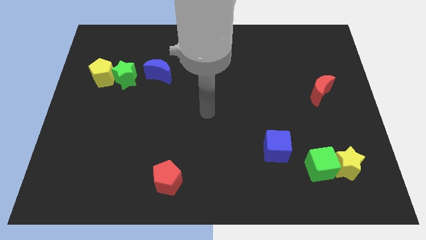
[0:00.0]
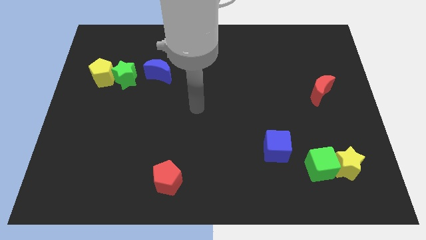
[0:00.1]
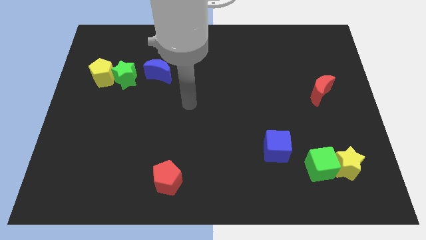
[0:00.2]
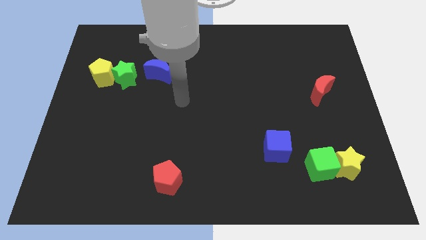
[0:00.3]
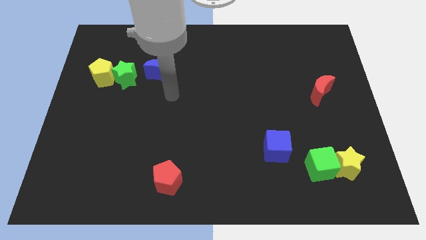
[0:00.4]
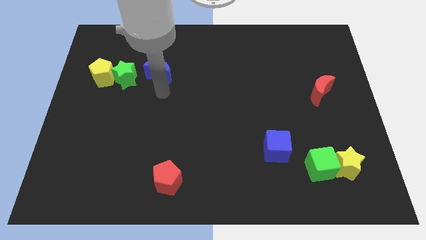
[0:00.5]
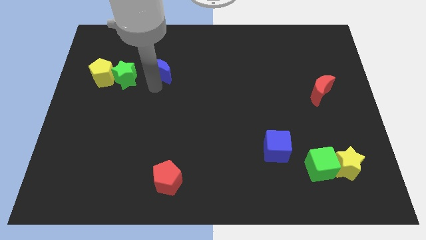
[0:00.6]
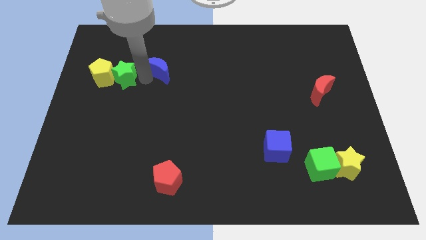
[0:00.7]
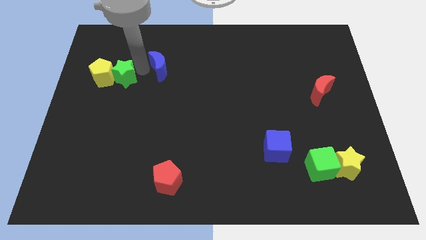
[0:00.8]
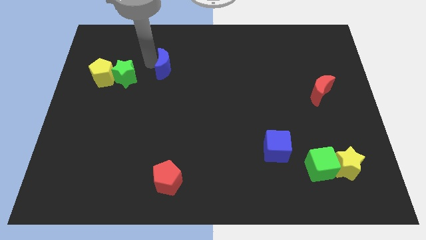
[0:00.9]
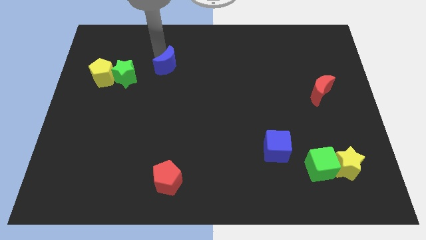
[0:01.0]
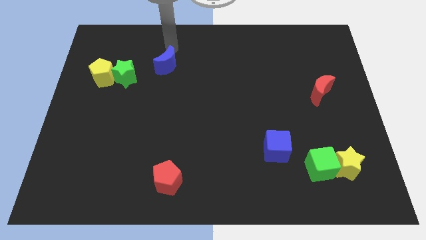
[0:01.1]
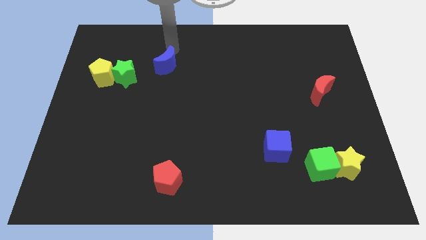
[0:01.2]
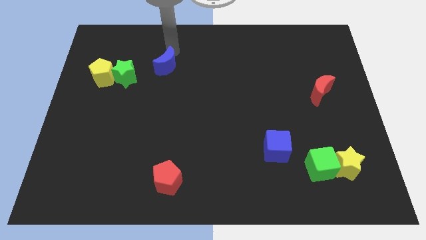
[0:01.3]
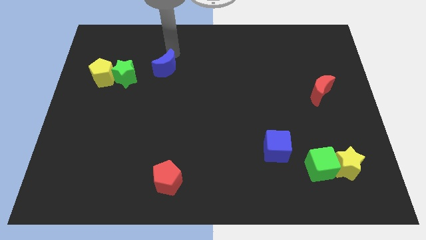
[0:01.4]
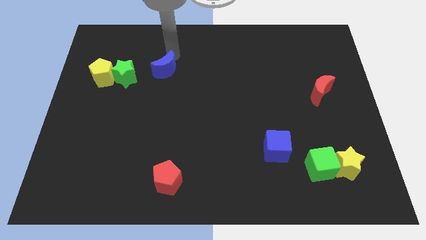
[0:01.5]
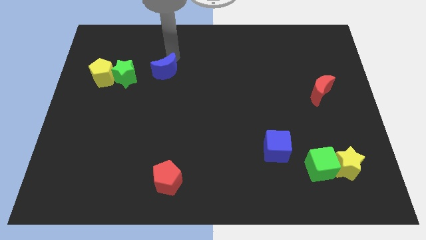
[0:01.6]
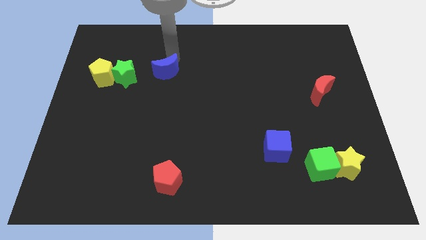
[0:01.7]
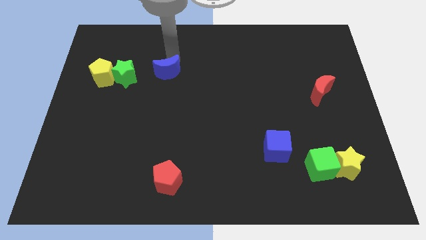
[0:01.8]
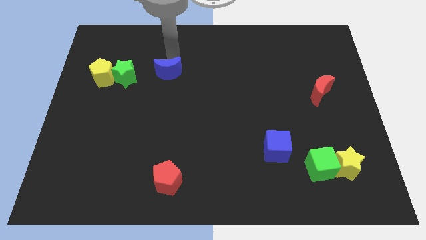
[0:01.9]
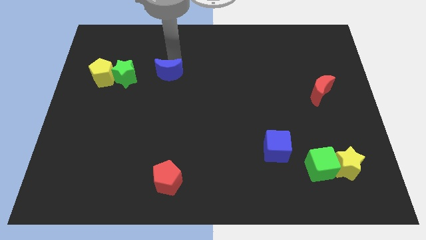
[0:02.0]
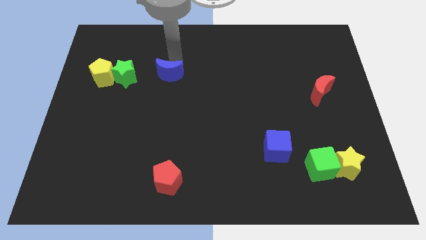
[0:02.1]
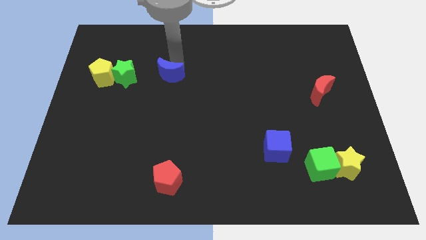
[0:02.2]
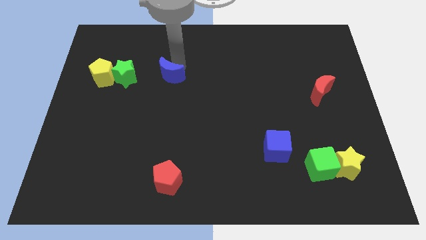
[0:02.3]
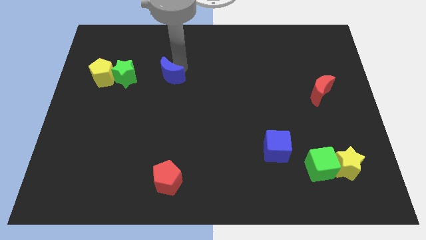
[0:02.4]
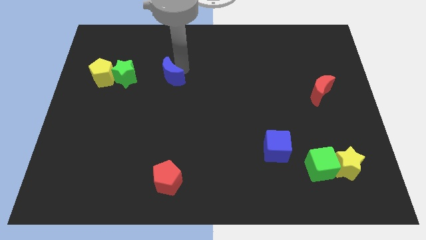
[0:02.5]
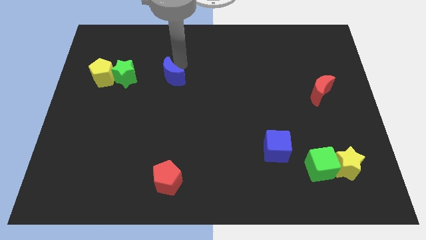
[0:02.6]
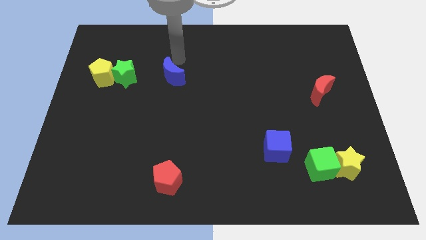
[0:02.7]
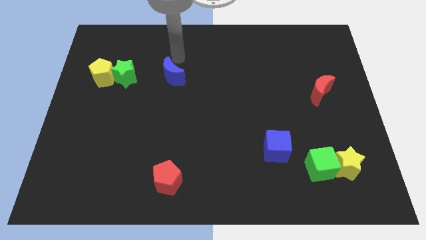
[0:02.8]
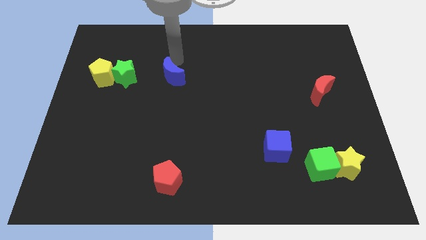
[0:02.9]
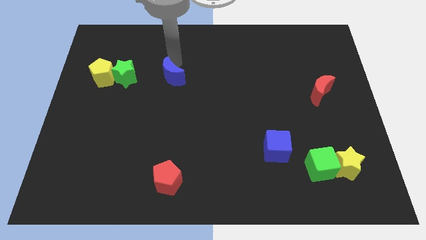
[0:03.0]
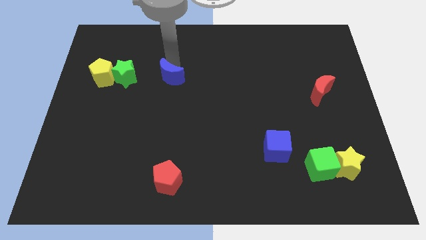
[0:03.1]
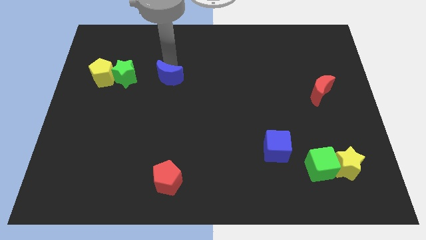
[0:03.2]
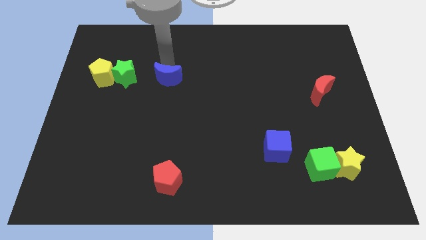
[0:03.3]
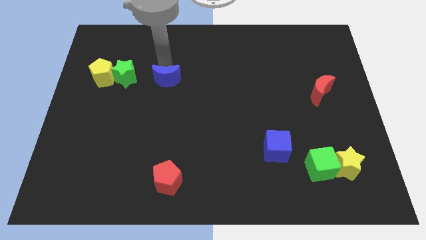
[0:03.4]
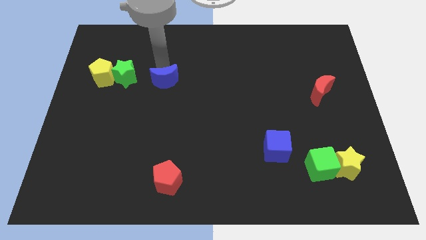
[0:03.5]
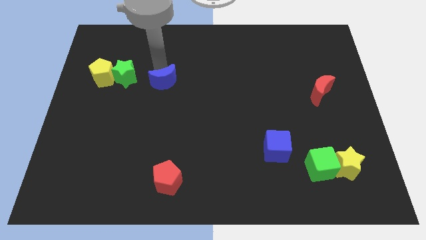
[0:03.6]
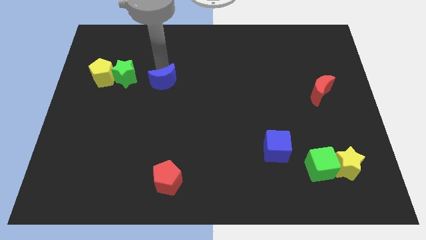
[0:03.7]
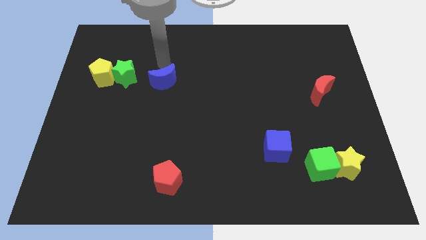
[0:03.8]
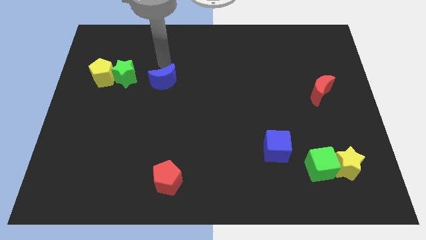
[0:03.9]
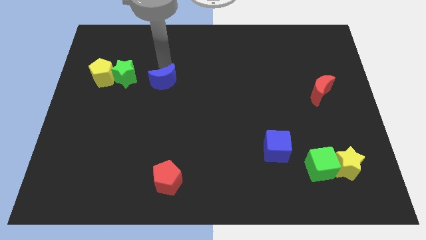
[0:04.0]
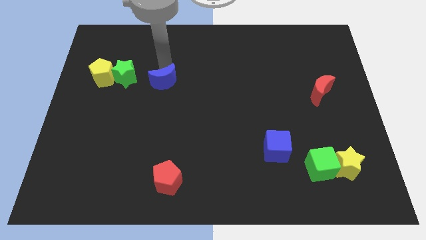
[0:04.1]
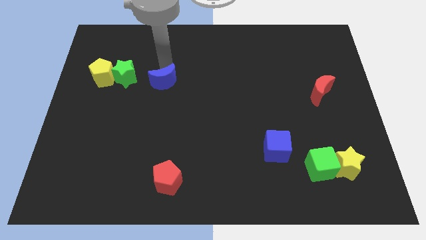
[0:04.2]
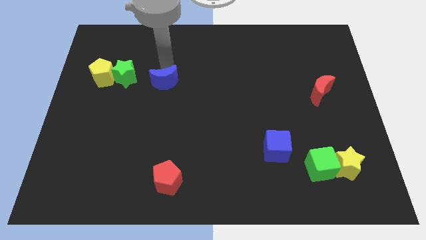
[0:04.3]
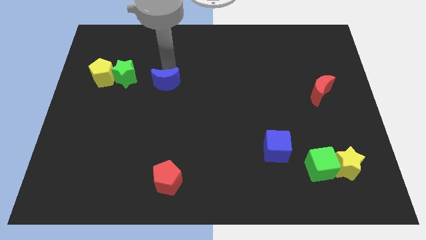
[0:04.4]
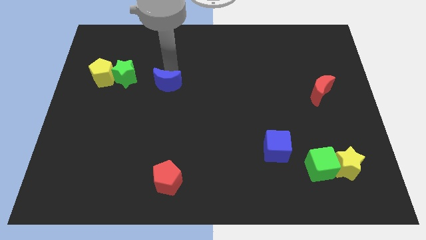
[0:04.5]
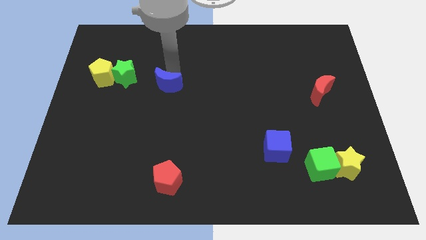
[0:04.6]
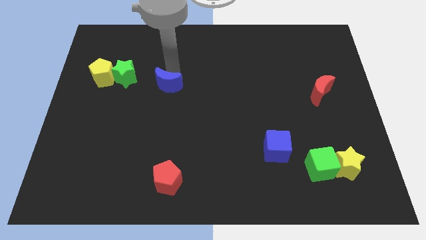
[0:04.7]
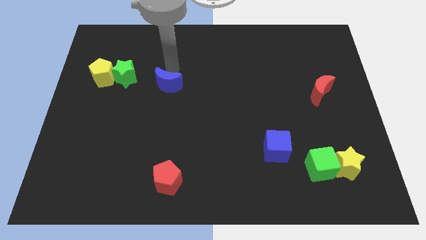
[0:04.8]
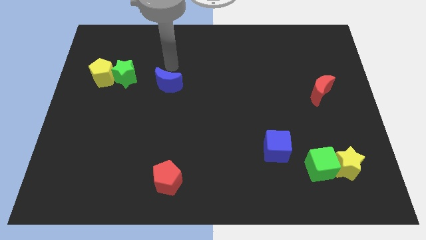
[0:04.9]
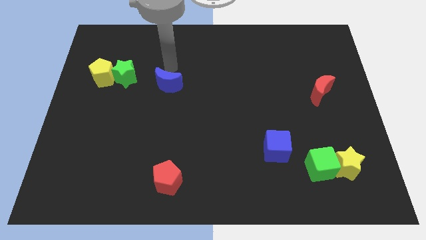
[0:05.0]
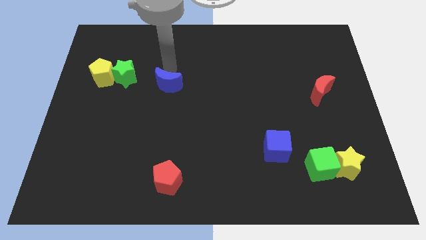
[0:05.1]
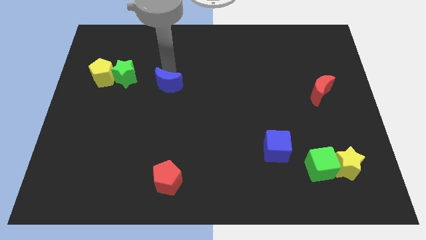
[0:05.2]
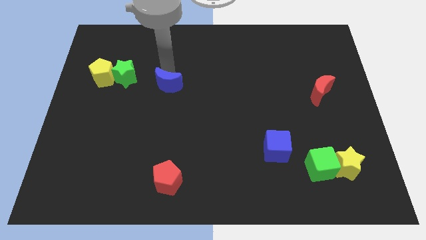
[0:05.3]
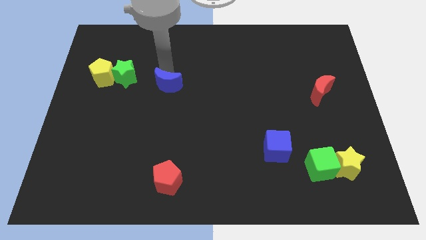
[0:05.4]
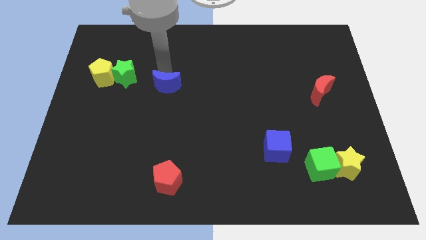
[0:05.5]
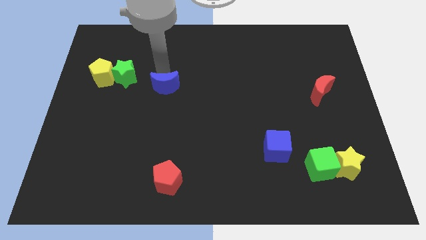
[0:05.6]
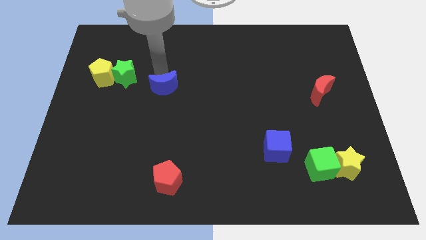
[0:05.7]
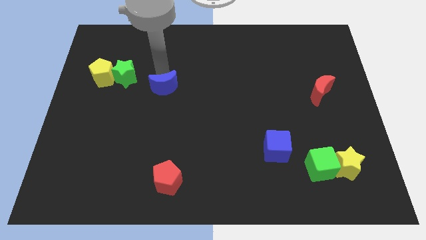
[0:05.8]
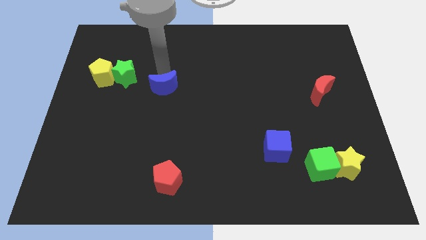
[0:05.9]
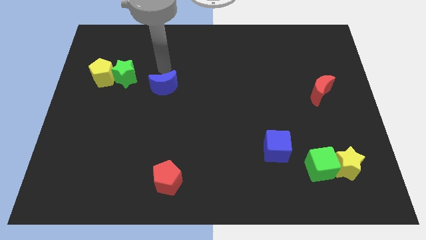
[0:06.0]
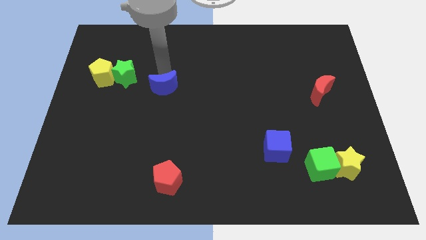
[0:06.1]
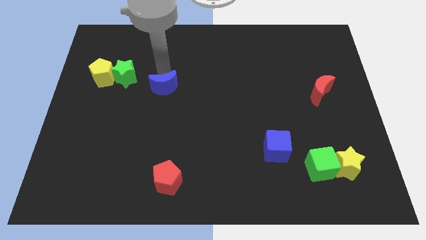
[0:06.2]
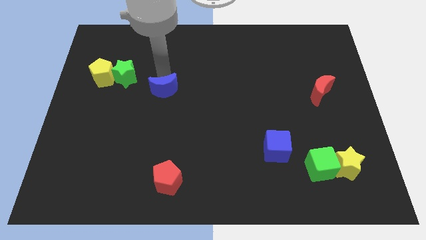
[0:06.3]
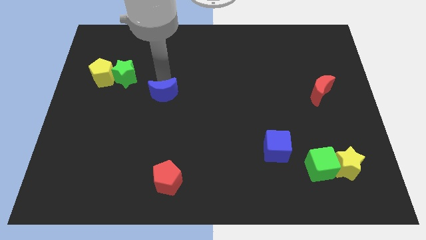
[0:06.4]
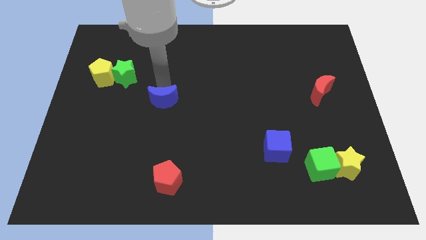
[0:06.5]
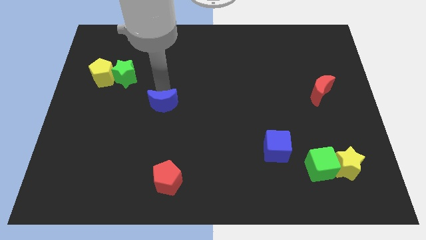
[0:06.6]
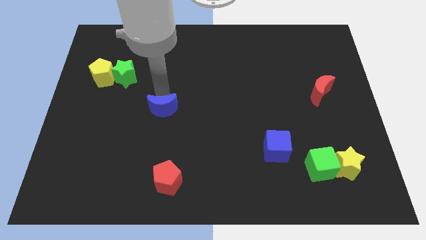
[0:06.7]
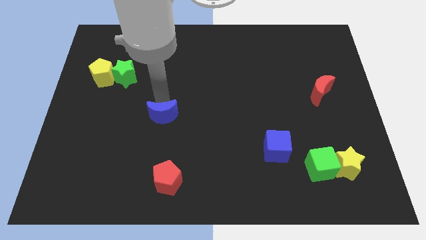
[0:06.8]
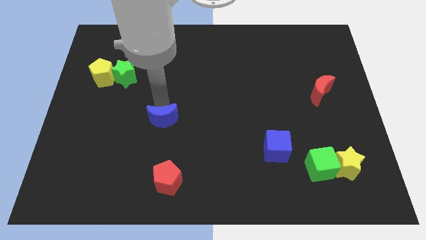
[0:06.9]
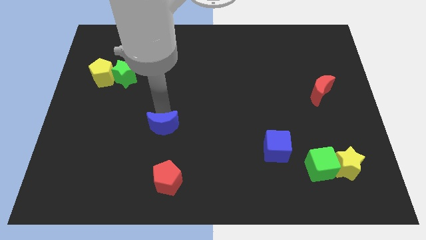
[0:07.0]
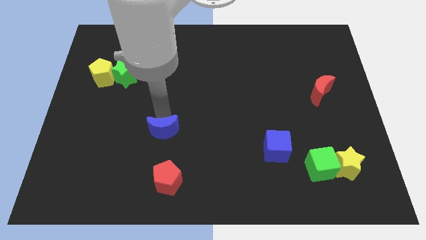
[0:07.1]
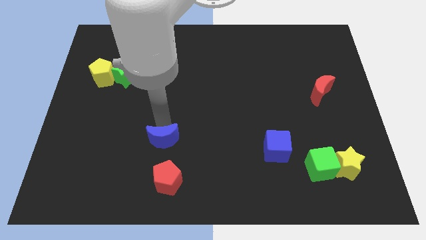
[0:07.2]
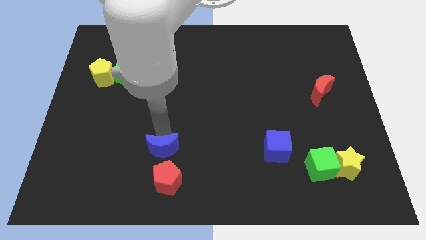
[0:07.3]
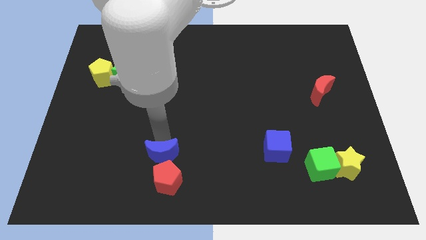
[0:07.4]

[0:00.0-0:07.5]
put the blue moon towards the red pentagon
